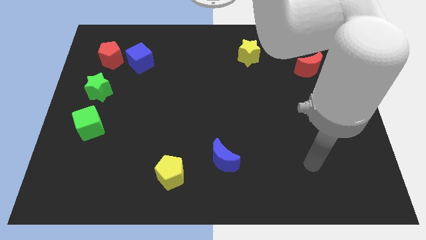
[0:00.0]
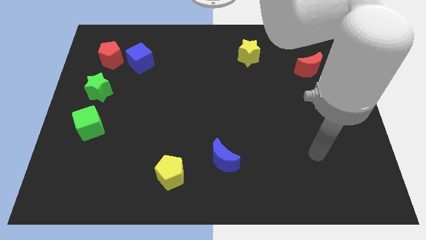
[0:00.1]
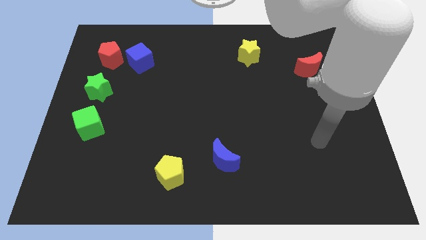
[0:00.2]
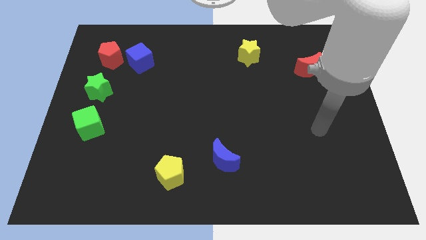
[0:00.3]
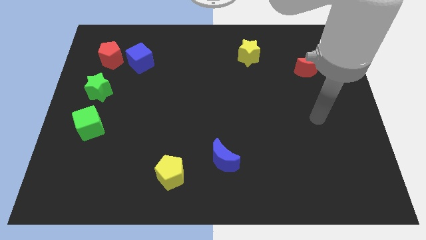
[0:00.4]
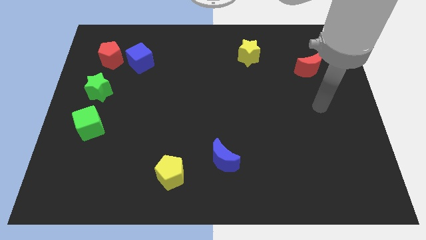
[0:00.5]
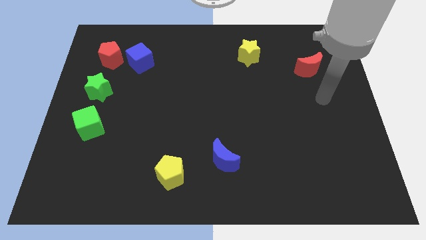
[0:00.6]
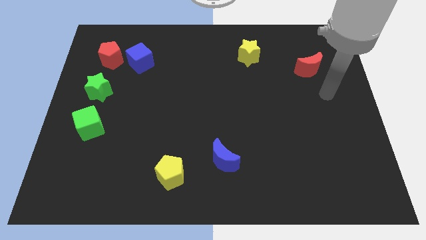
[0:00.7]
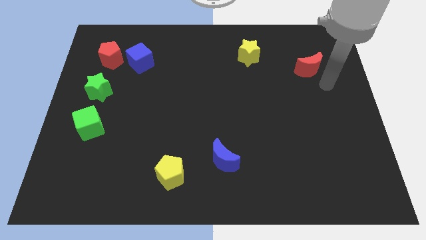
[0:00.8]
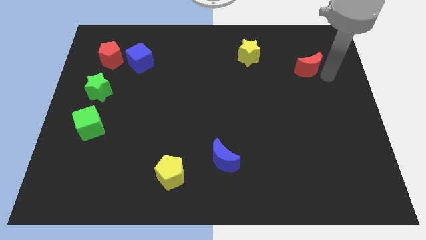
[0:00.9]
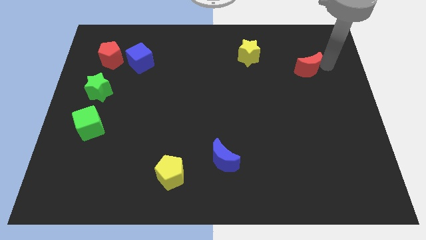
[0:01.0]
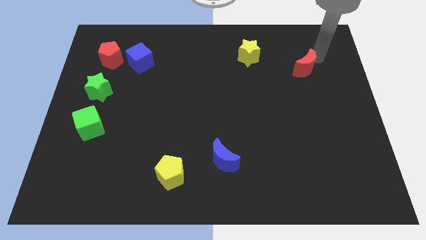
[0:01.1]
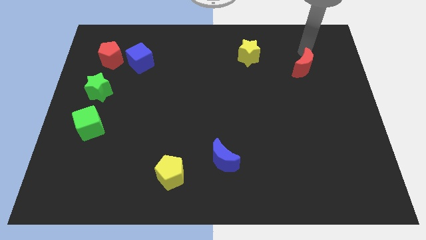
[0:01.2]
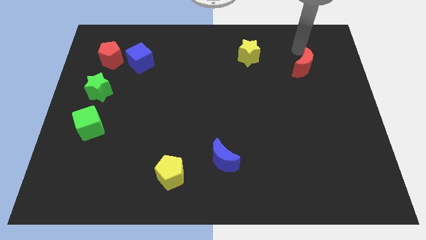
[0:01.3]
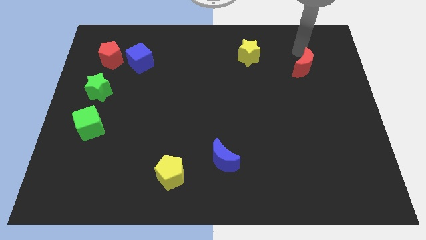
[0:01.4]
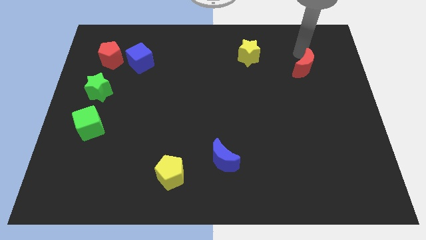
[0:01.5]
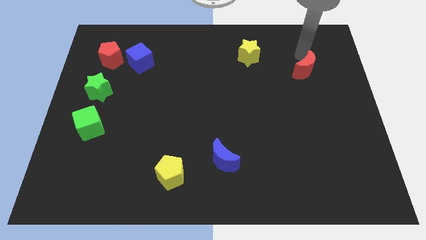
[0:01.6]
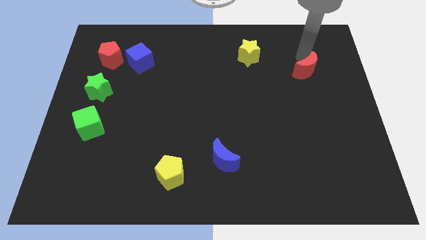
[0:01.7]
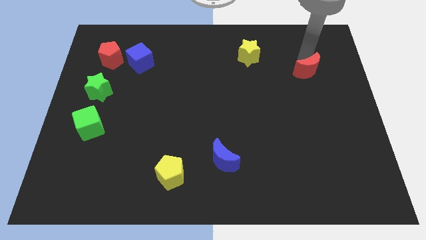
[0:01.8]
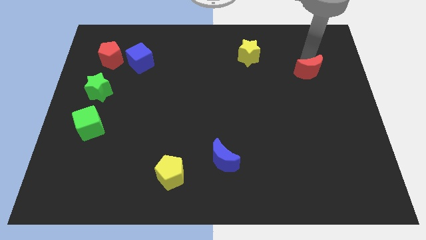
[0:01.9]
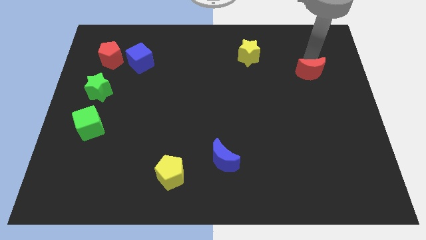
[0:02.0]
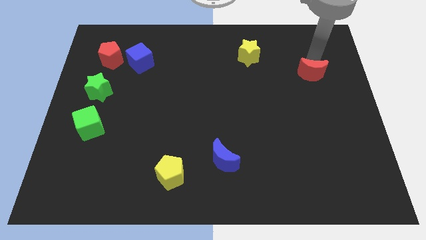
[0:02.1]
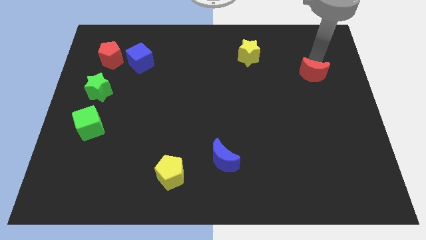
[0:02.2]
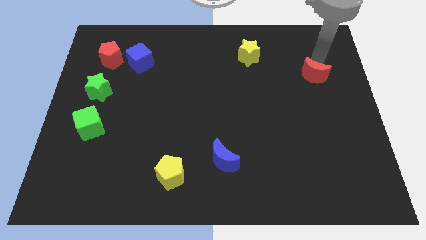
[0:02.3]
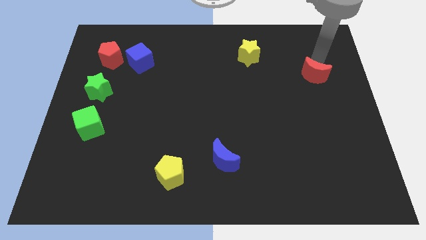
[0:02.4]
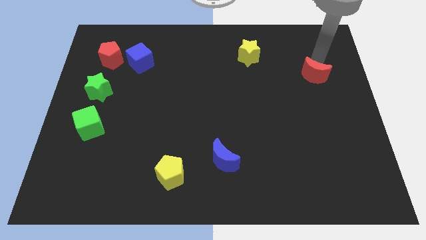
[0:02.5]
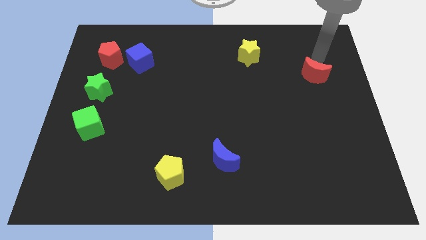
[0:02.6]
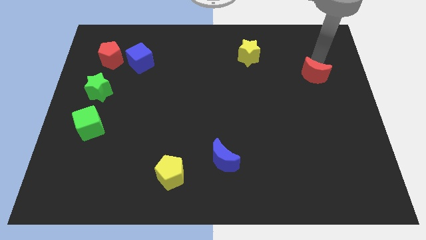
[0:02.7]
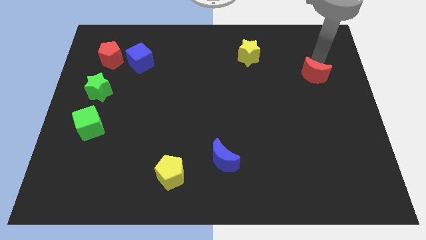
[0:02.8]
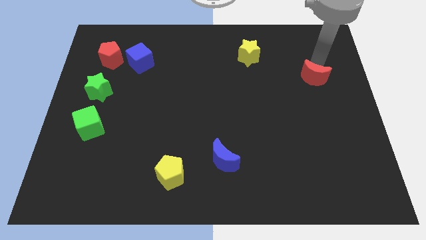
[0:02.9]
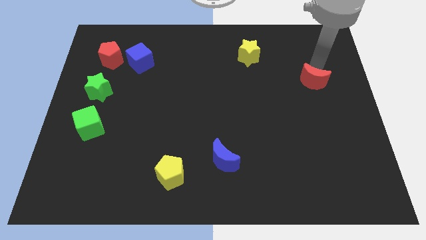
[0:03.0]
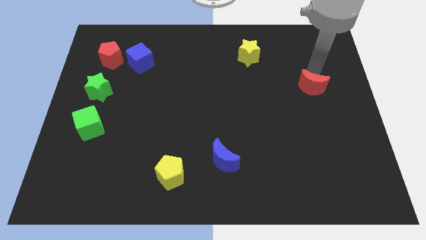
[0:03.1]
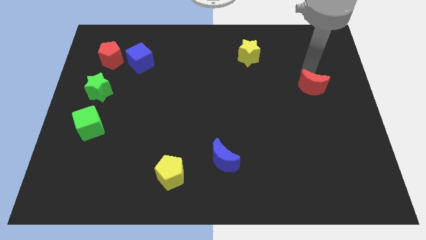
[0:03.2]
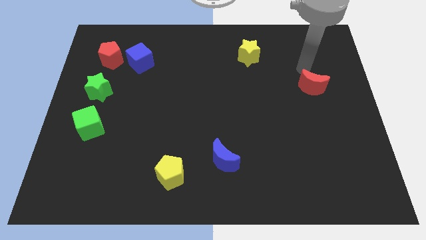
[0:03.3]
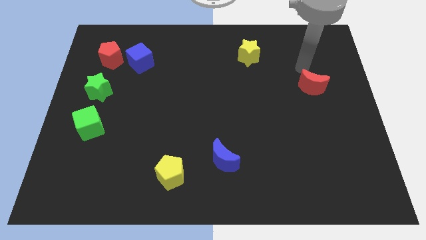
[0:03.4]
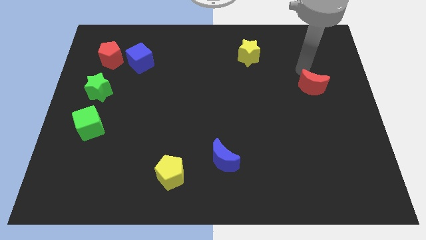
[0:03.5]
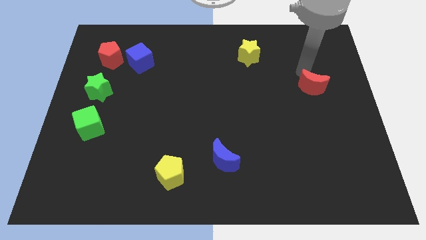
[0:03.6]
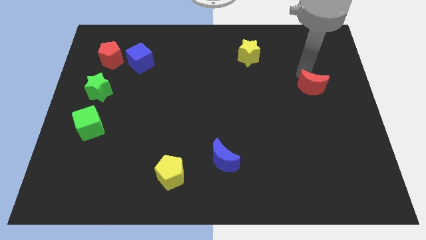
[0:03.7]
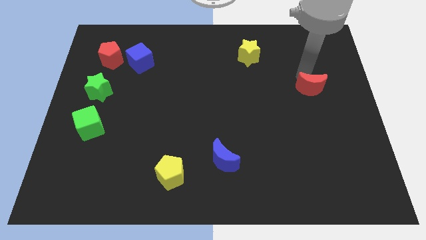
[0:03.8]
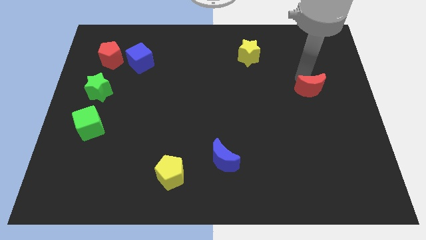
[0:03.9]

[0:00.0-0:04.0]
move the red moon downwards somewhat

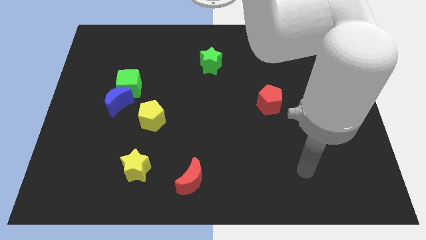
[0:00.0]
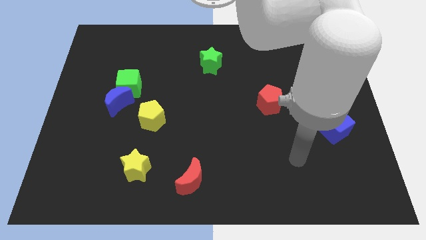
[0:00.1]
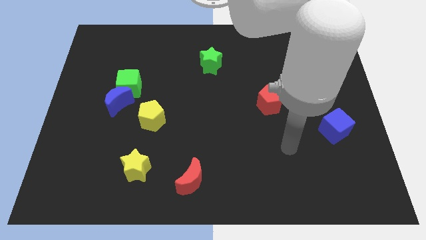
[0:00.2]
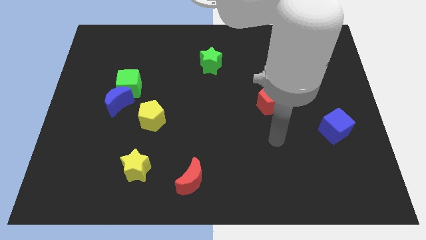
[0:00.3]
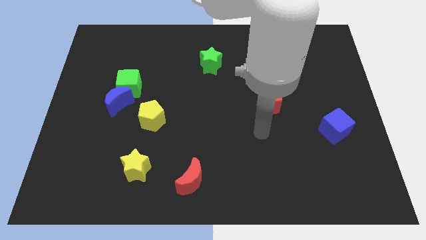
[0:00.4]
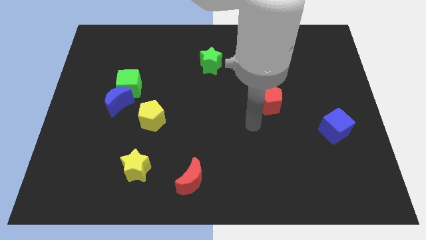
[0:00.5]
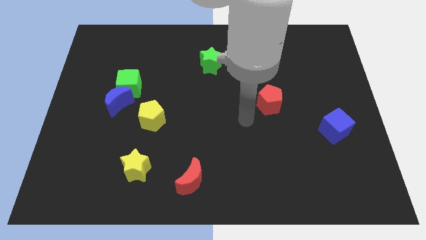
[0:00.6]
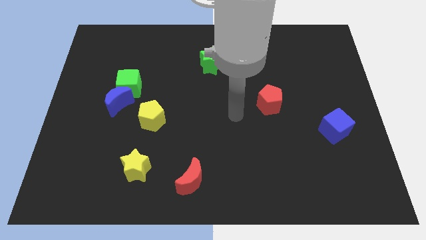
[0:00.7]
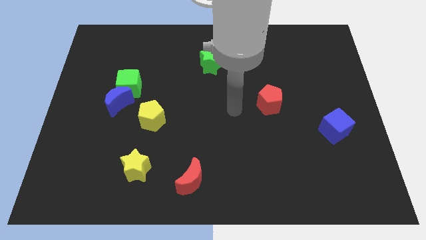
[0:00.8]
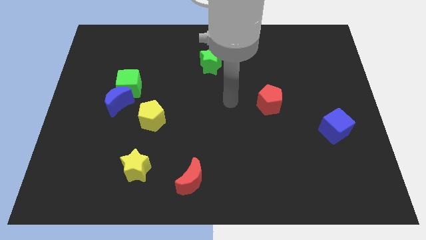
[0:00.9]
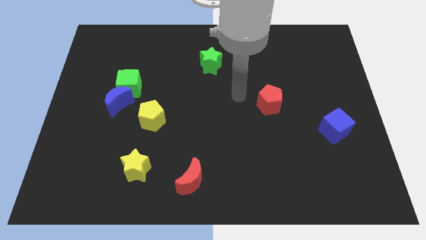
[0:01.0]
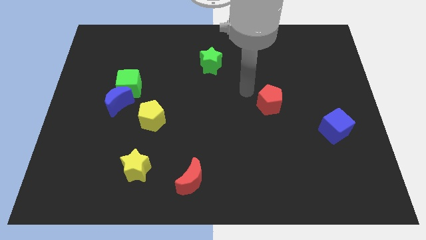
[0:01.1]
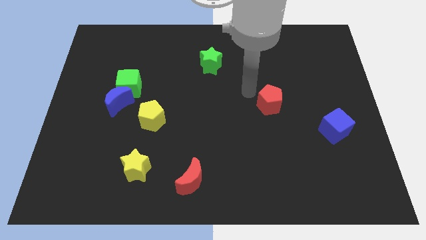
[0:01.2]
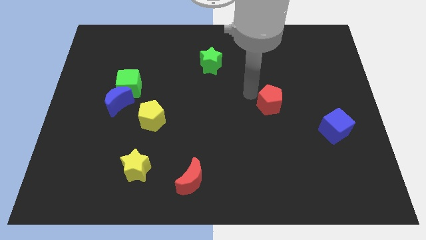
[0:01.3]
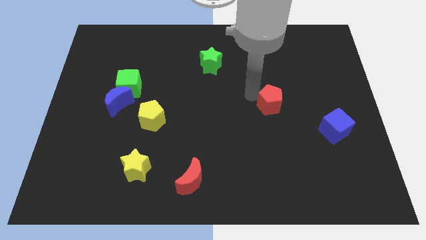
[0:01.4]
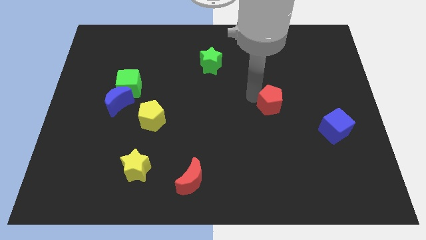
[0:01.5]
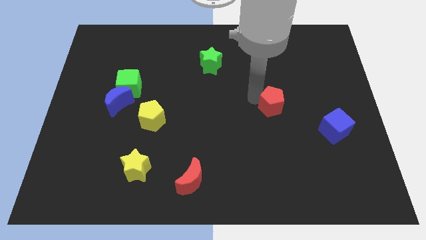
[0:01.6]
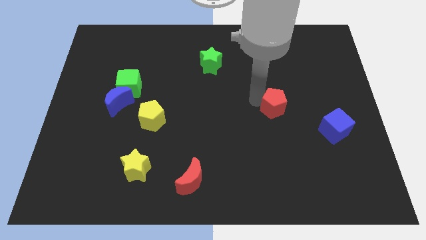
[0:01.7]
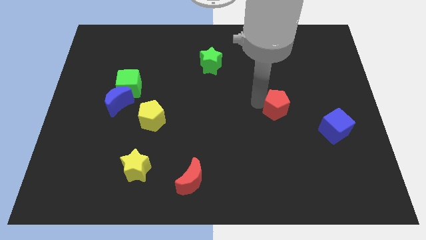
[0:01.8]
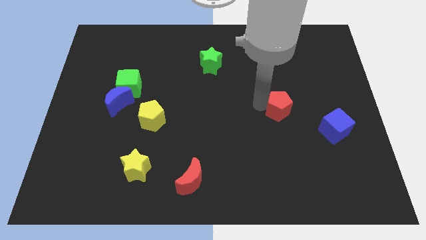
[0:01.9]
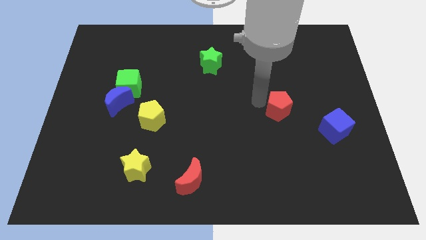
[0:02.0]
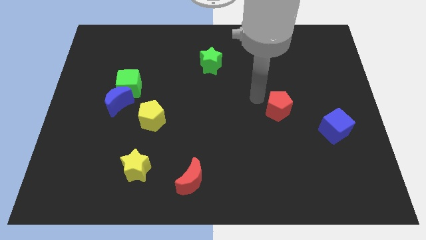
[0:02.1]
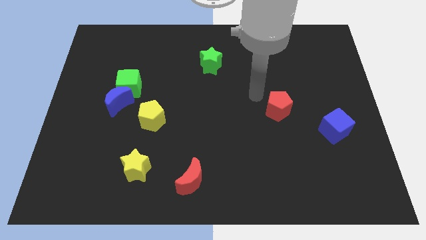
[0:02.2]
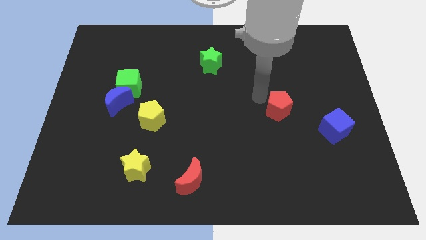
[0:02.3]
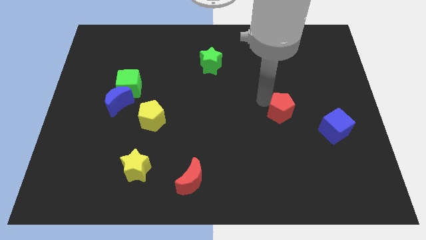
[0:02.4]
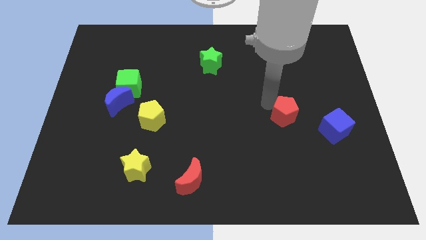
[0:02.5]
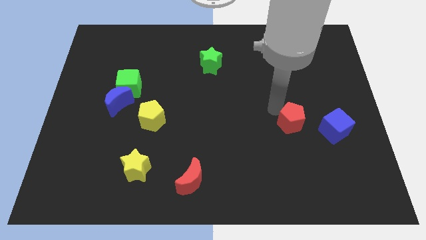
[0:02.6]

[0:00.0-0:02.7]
move the red pentagon a bit down and then to the right

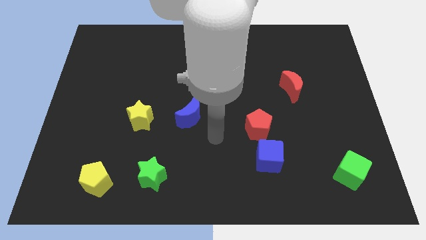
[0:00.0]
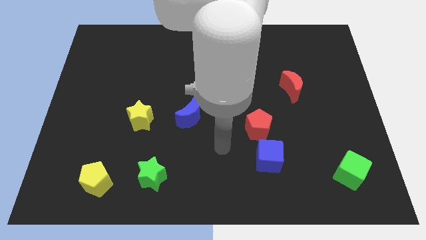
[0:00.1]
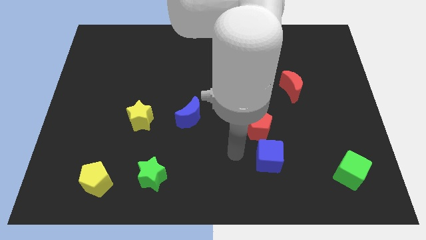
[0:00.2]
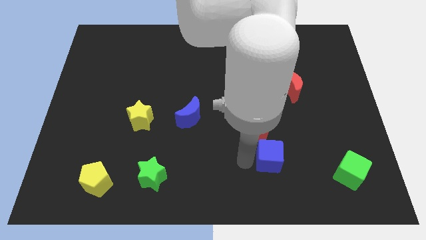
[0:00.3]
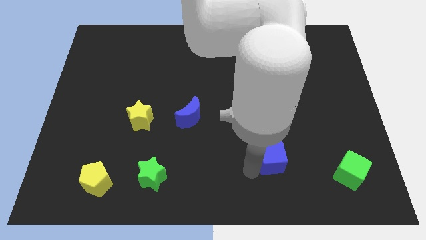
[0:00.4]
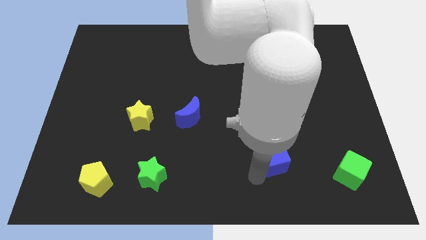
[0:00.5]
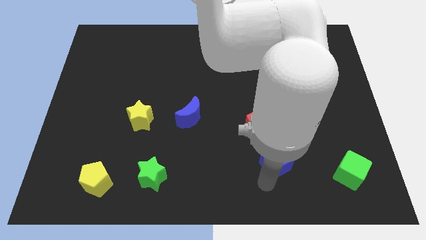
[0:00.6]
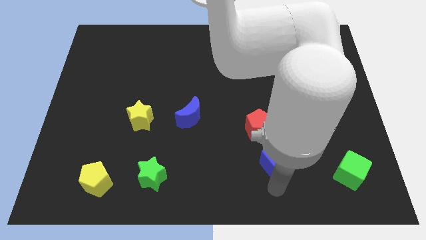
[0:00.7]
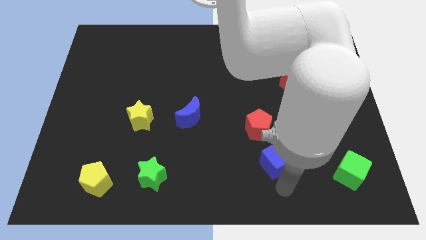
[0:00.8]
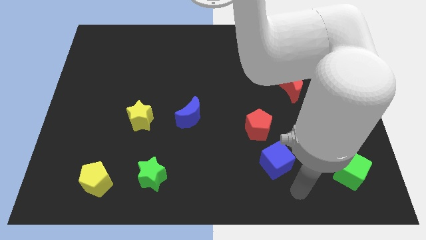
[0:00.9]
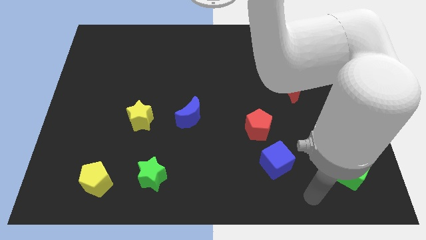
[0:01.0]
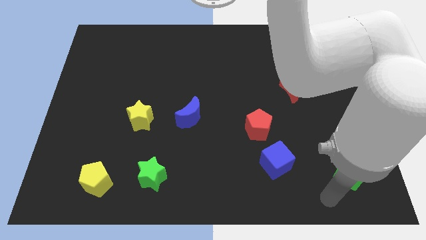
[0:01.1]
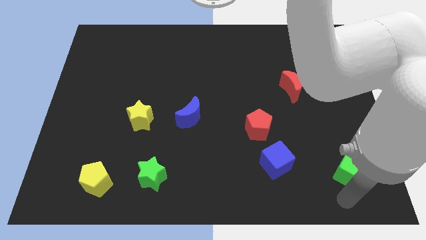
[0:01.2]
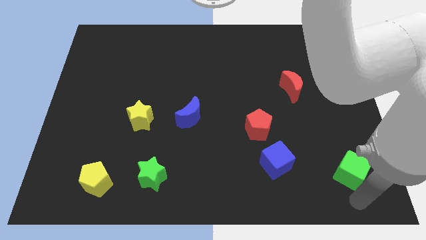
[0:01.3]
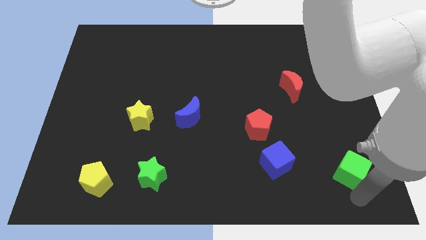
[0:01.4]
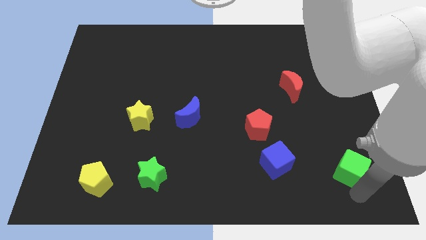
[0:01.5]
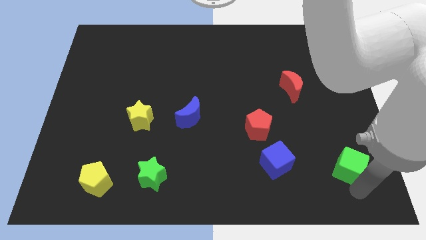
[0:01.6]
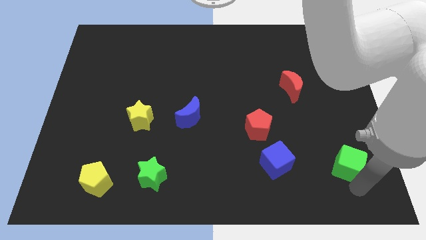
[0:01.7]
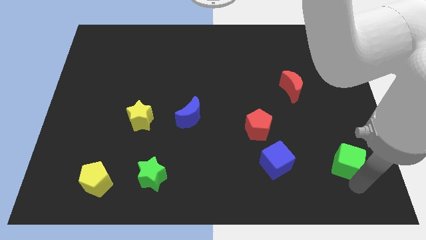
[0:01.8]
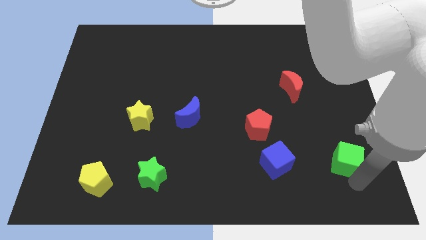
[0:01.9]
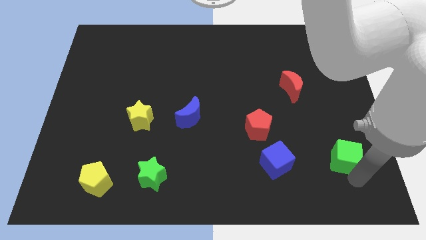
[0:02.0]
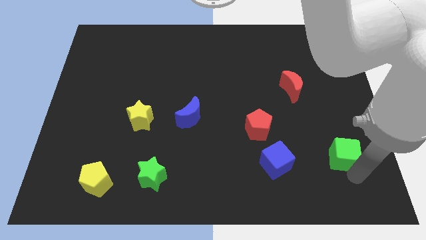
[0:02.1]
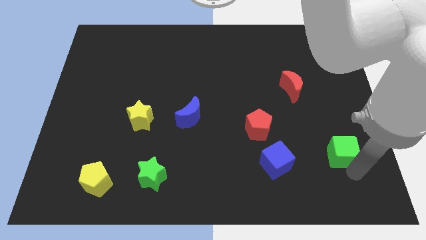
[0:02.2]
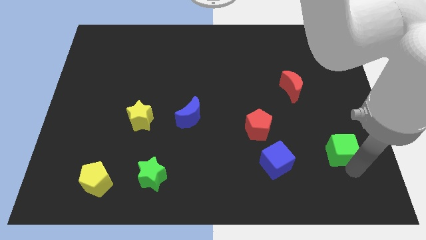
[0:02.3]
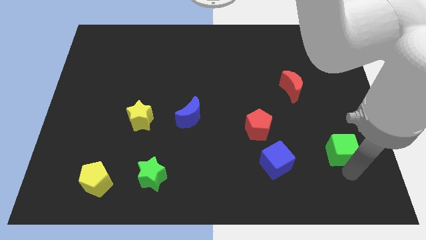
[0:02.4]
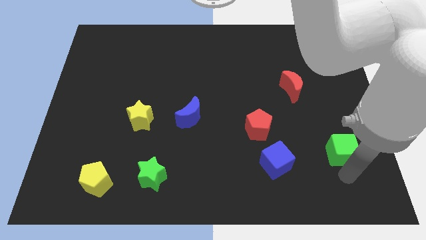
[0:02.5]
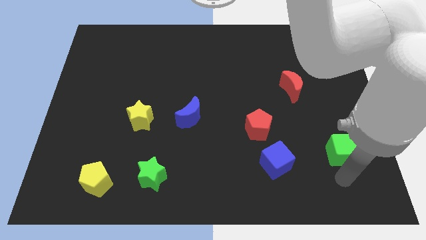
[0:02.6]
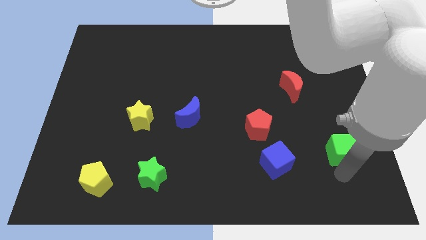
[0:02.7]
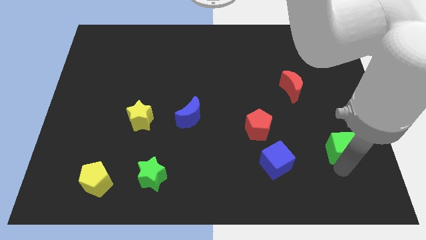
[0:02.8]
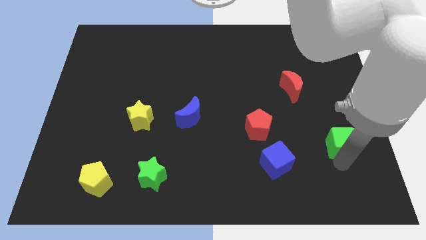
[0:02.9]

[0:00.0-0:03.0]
push the green cube a little bit up
